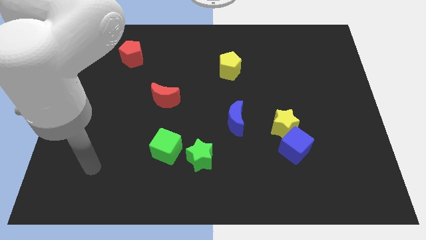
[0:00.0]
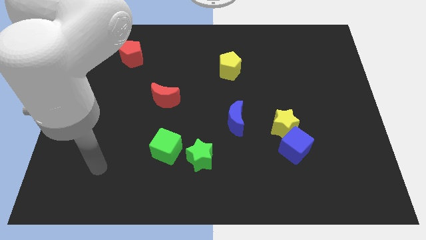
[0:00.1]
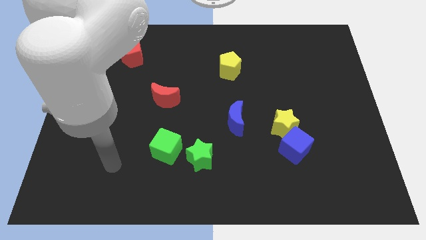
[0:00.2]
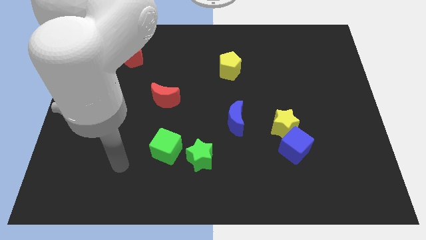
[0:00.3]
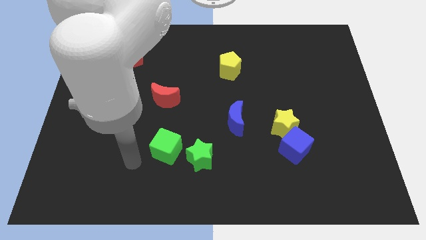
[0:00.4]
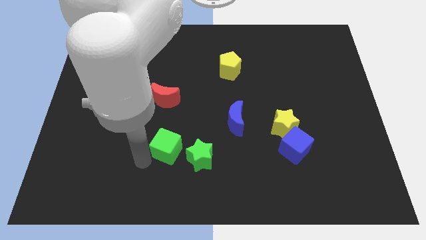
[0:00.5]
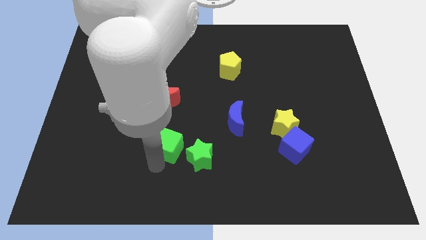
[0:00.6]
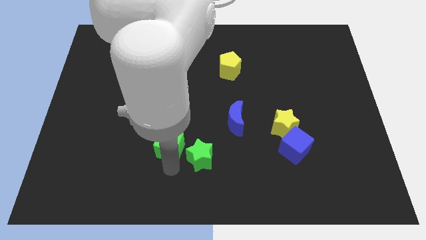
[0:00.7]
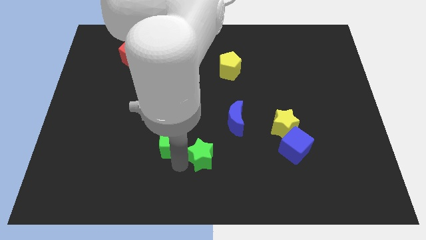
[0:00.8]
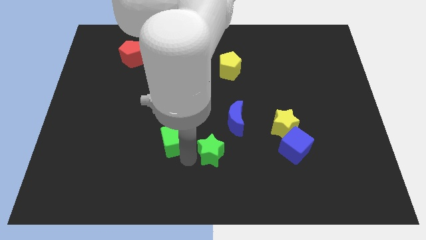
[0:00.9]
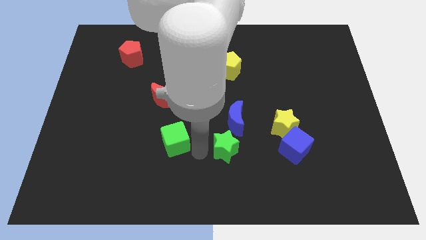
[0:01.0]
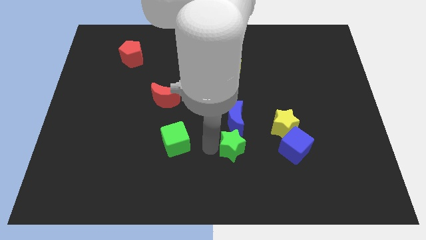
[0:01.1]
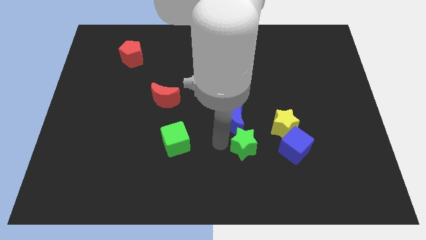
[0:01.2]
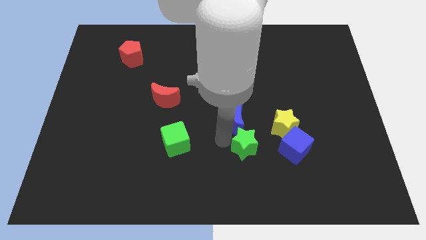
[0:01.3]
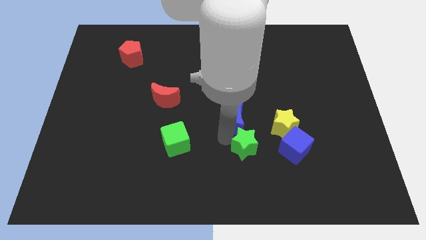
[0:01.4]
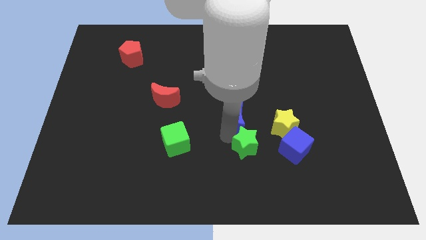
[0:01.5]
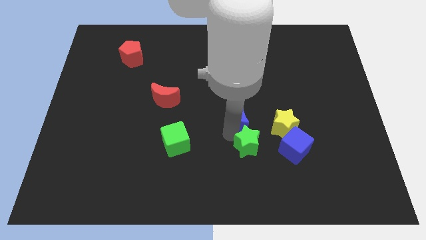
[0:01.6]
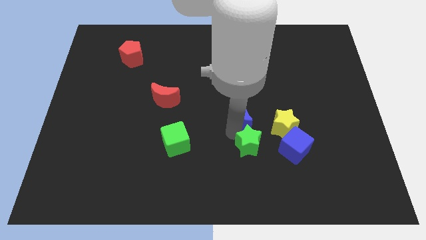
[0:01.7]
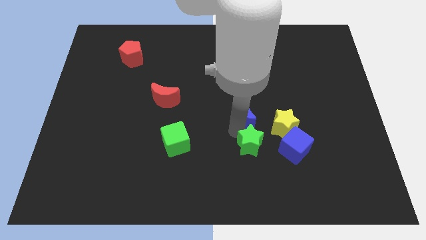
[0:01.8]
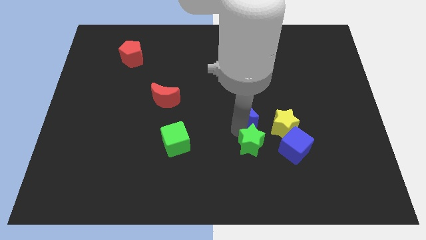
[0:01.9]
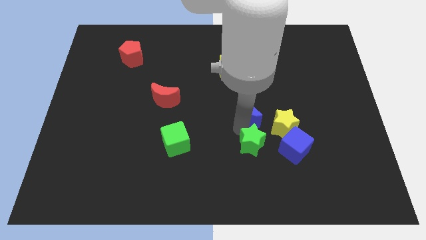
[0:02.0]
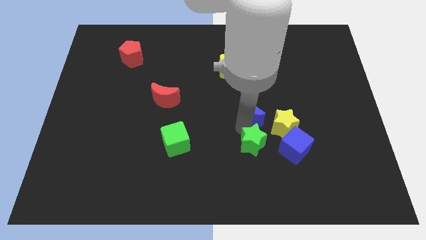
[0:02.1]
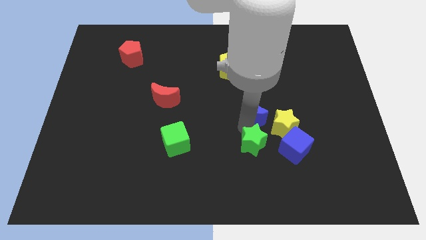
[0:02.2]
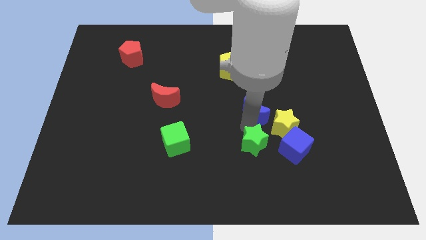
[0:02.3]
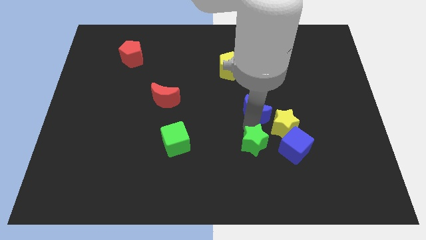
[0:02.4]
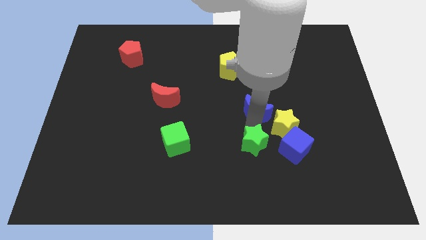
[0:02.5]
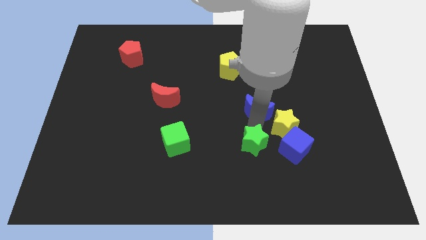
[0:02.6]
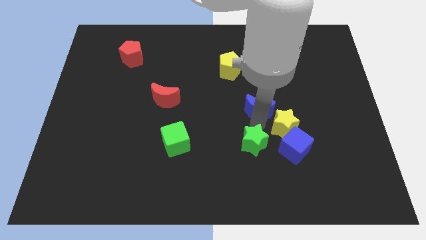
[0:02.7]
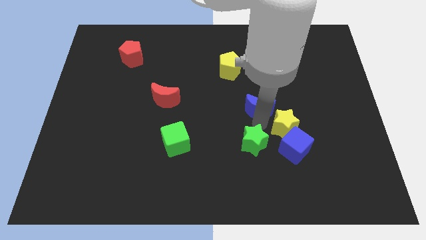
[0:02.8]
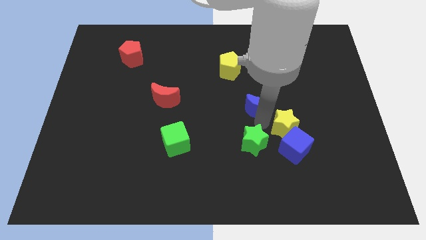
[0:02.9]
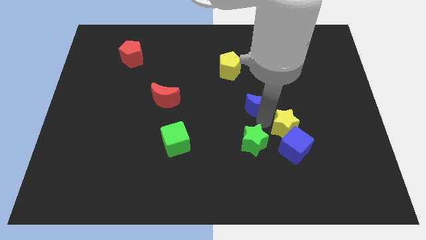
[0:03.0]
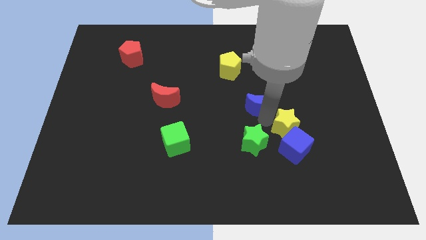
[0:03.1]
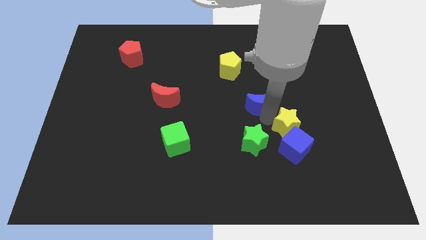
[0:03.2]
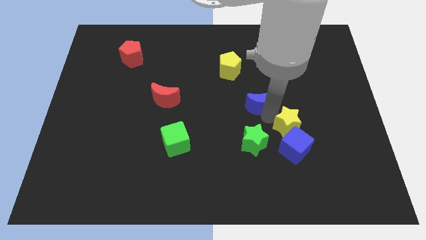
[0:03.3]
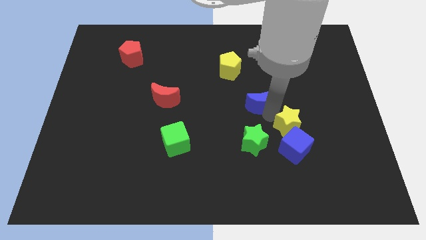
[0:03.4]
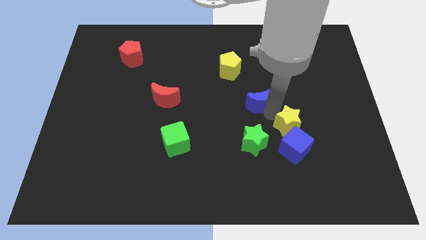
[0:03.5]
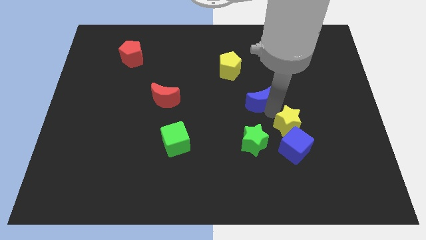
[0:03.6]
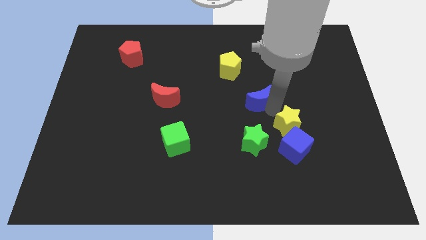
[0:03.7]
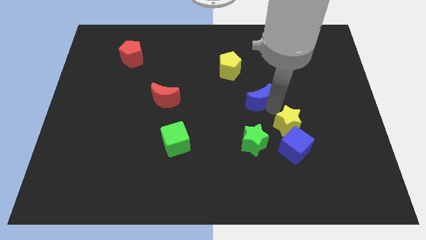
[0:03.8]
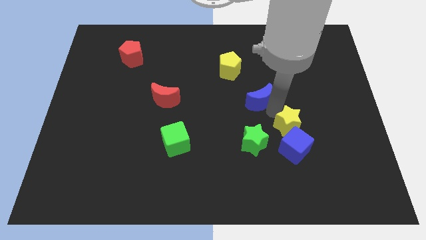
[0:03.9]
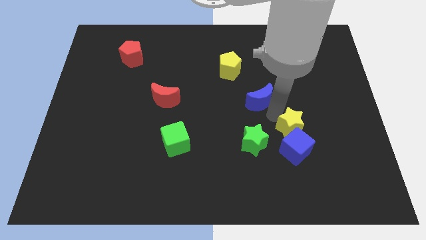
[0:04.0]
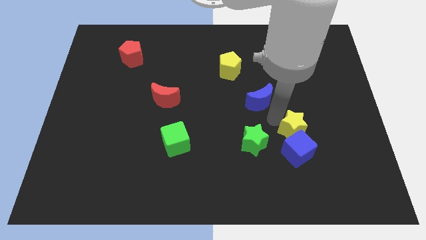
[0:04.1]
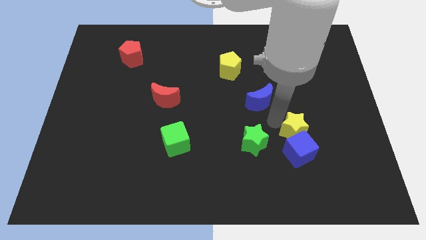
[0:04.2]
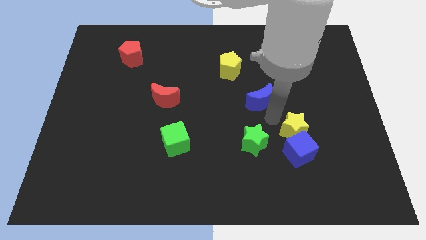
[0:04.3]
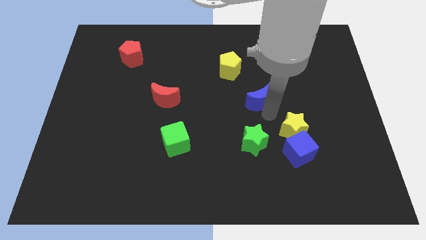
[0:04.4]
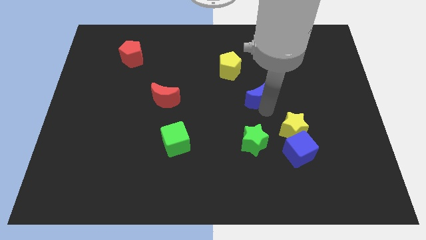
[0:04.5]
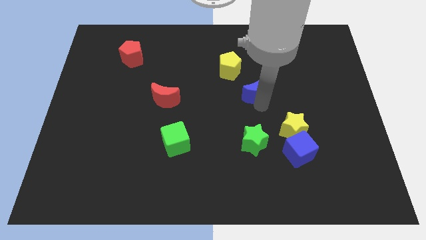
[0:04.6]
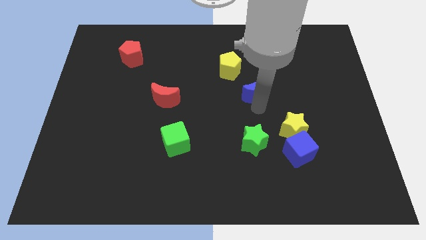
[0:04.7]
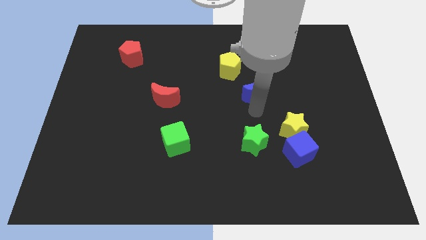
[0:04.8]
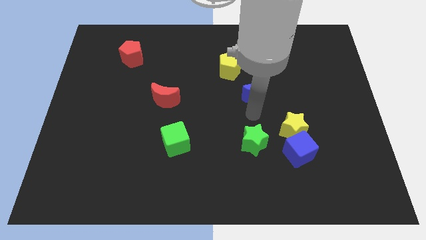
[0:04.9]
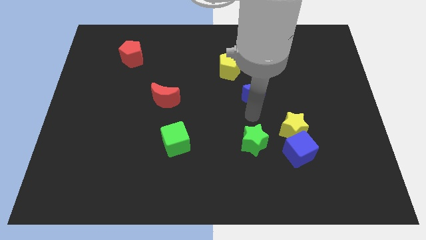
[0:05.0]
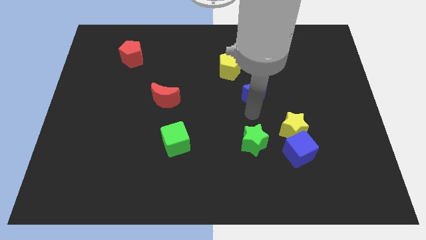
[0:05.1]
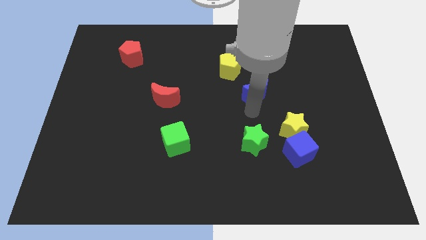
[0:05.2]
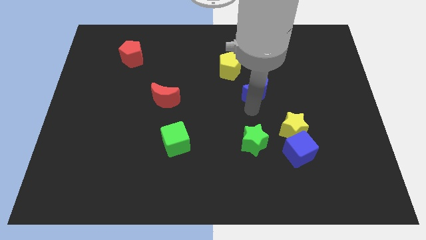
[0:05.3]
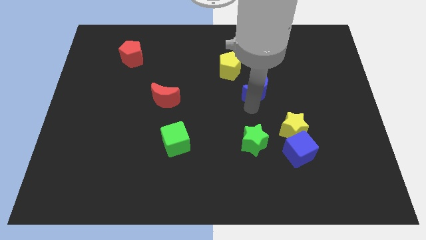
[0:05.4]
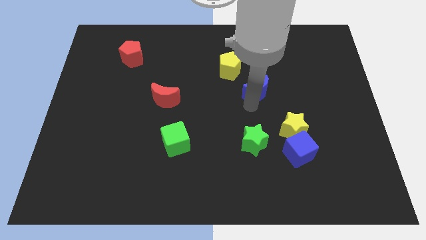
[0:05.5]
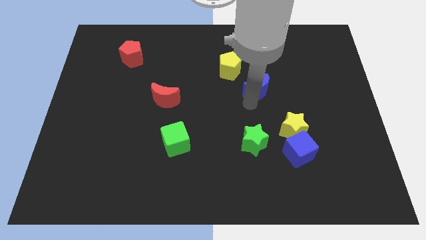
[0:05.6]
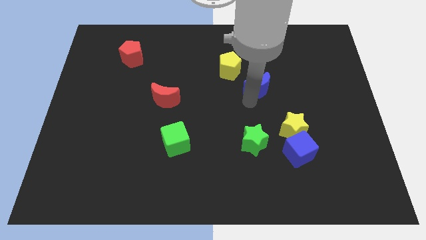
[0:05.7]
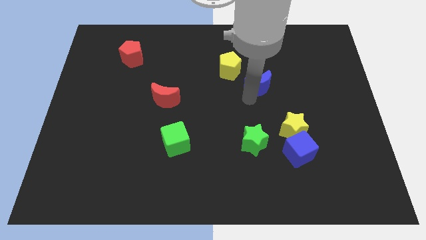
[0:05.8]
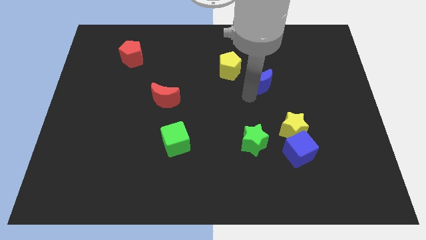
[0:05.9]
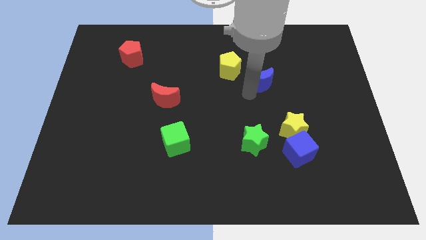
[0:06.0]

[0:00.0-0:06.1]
move the blue moon to the right of the yellow pentagon

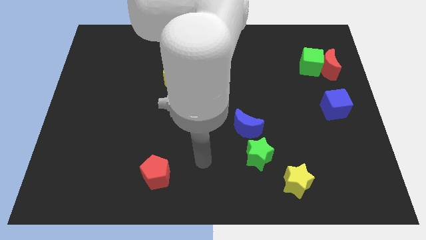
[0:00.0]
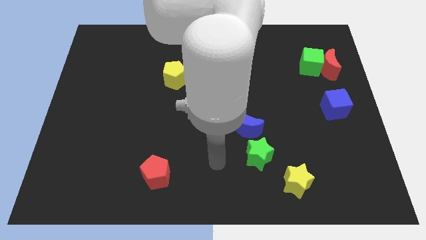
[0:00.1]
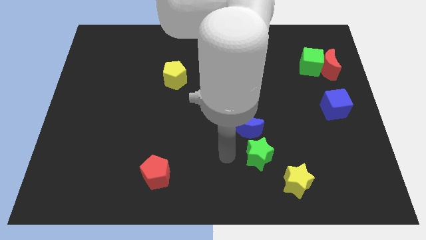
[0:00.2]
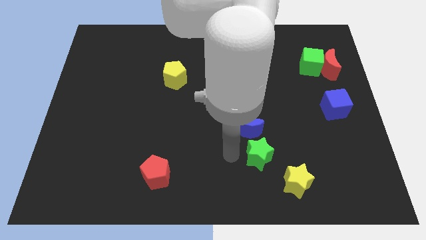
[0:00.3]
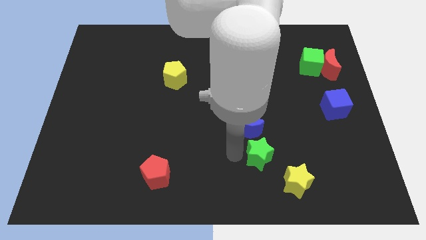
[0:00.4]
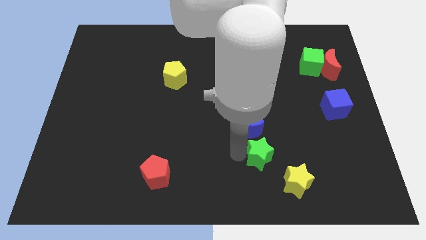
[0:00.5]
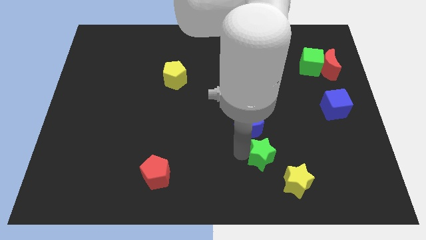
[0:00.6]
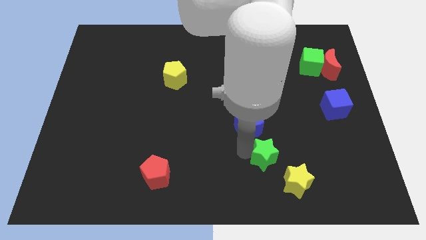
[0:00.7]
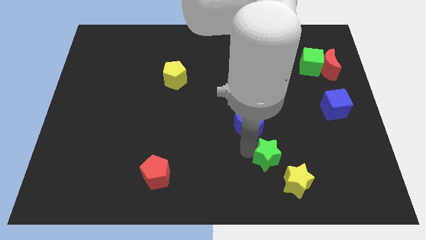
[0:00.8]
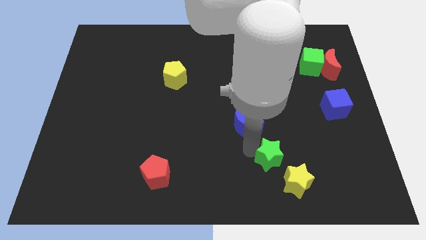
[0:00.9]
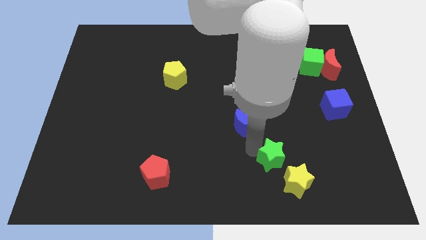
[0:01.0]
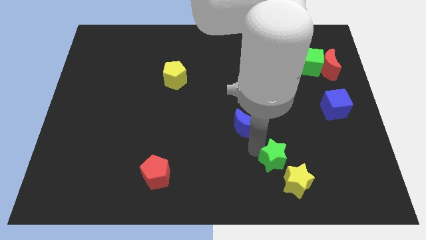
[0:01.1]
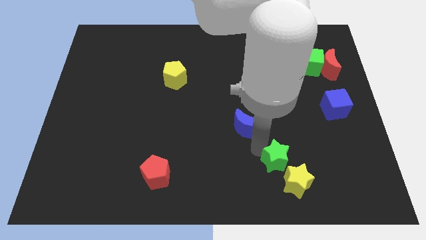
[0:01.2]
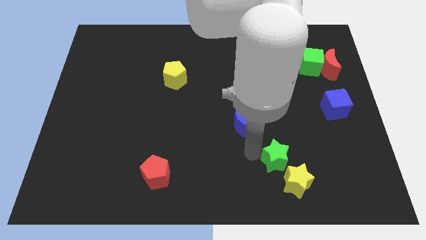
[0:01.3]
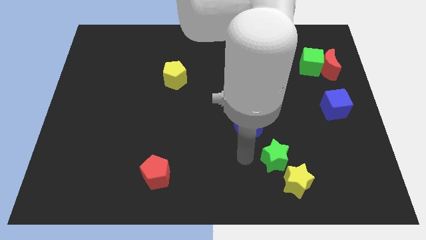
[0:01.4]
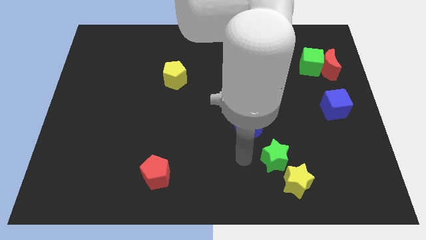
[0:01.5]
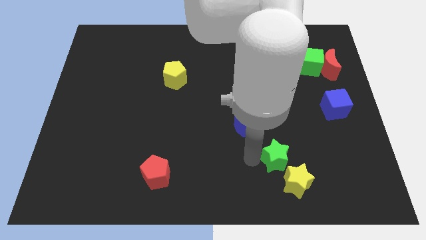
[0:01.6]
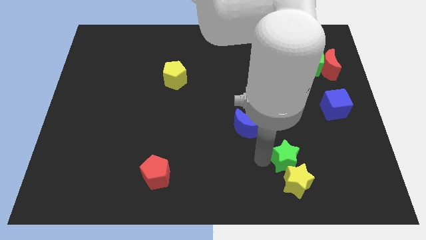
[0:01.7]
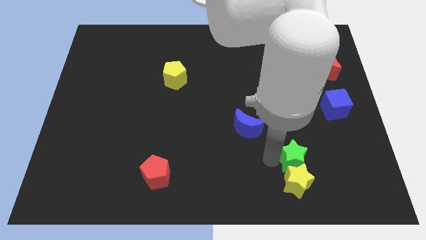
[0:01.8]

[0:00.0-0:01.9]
move the green star diagonally up and to the right of the yellow star
